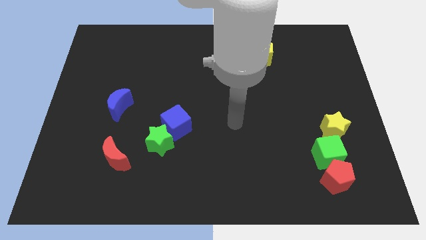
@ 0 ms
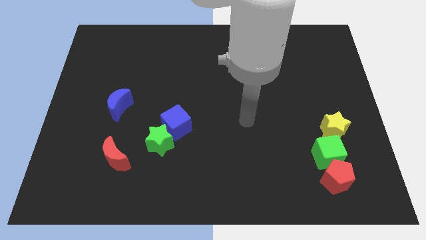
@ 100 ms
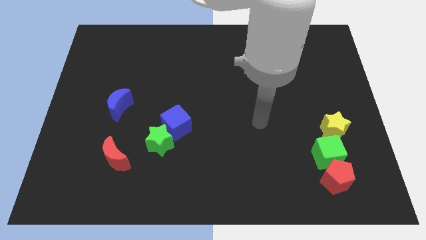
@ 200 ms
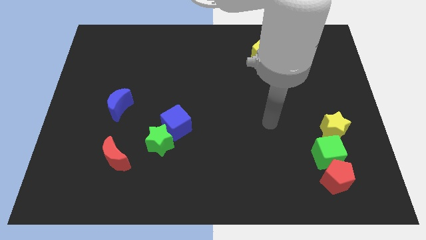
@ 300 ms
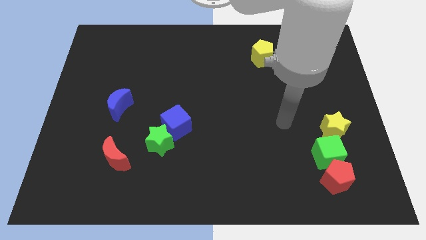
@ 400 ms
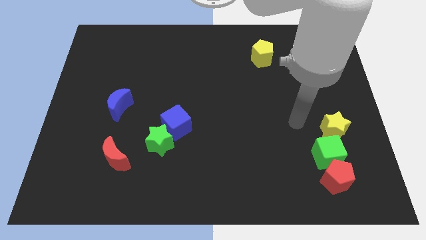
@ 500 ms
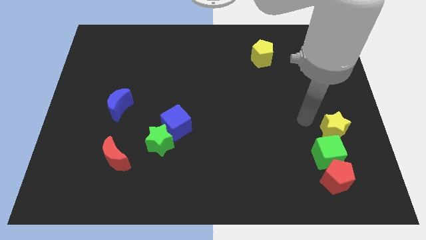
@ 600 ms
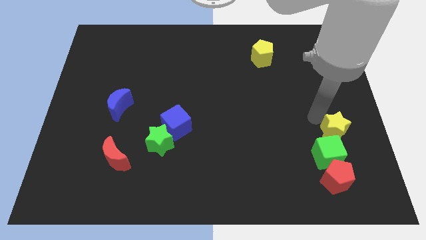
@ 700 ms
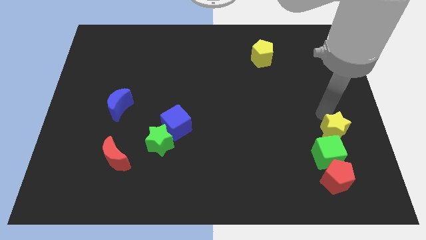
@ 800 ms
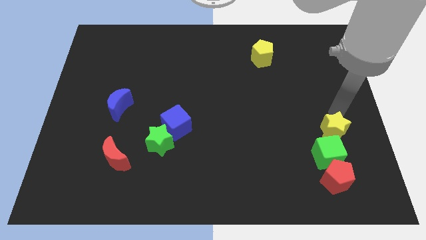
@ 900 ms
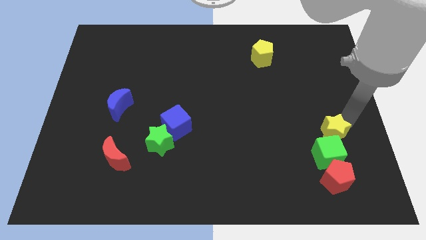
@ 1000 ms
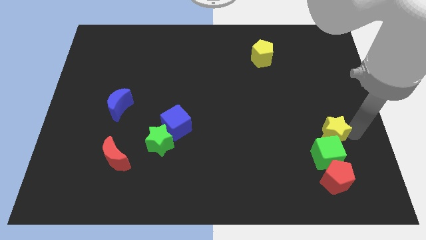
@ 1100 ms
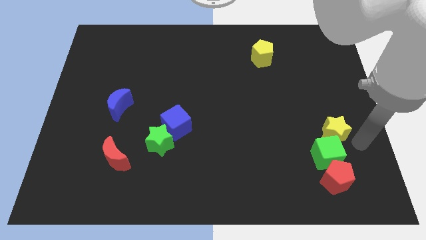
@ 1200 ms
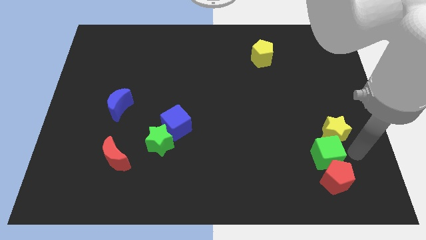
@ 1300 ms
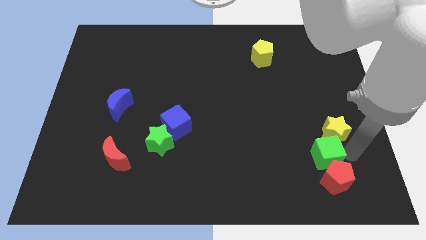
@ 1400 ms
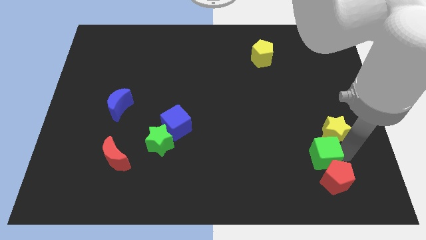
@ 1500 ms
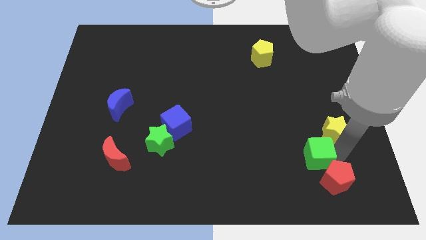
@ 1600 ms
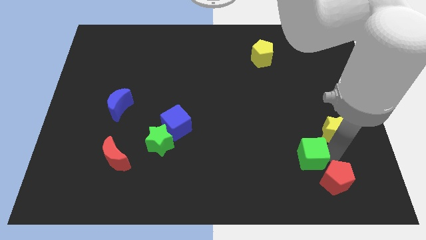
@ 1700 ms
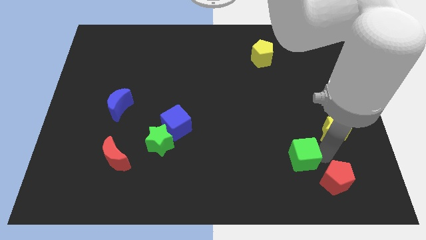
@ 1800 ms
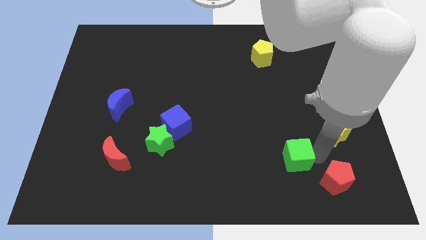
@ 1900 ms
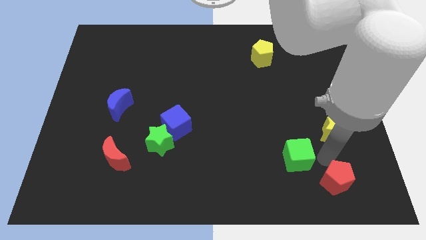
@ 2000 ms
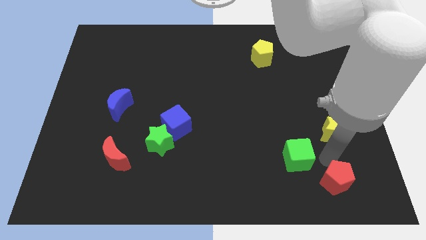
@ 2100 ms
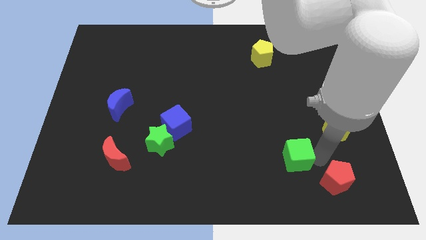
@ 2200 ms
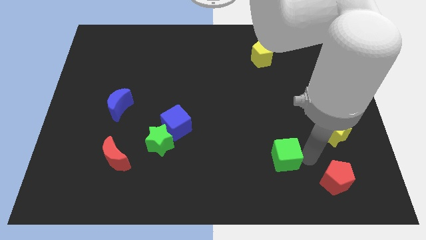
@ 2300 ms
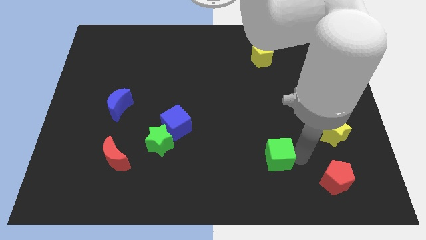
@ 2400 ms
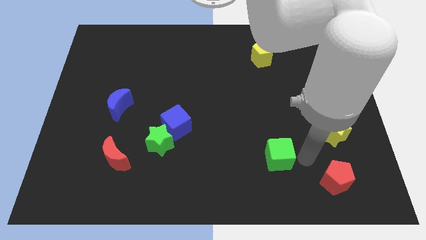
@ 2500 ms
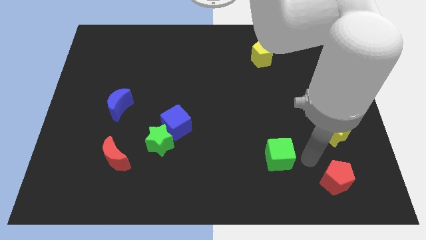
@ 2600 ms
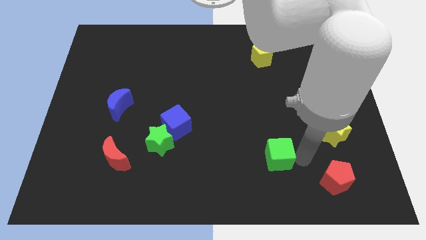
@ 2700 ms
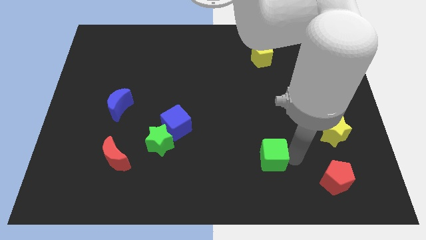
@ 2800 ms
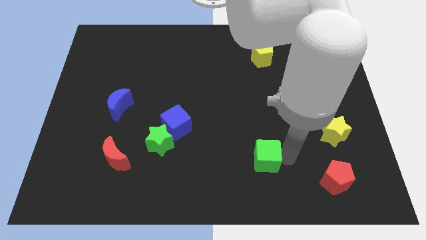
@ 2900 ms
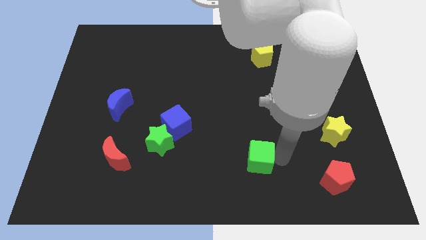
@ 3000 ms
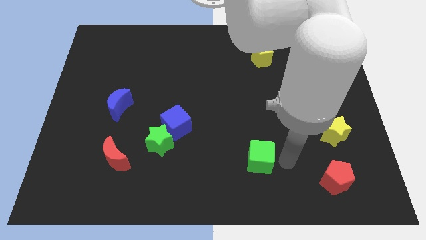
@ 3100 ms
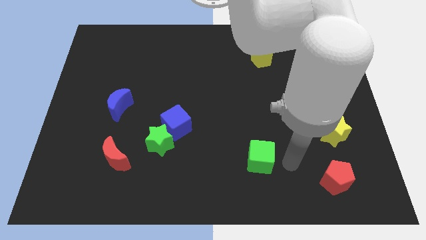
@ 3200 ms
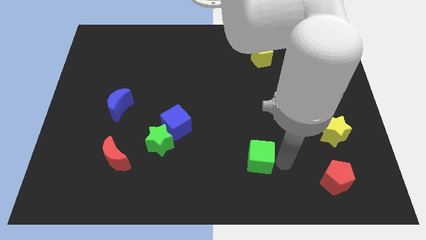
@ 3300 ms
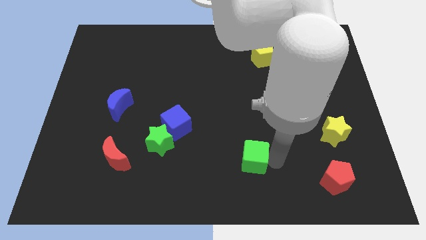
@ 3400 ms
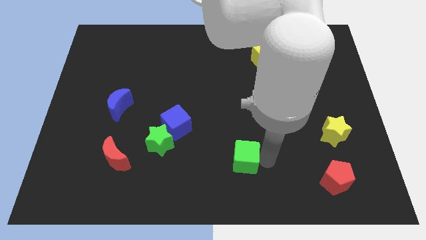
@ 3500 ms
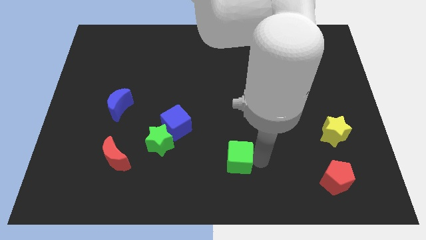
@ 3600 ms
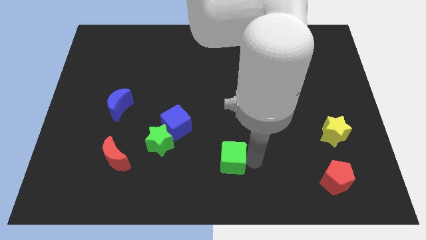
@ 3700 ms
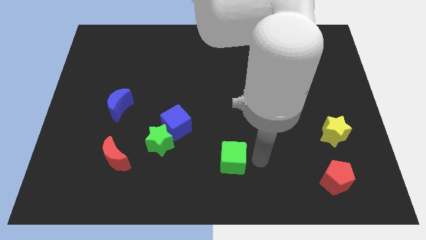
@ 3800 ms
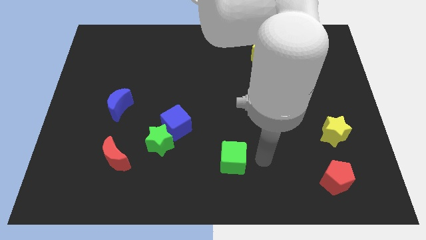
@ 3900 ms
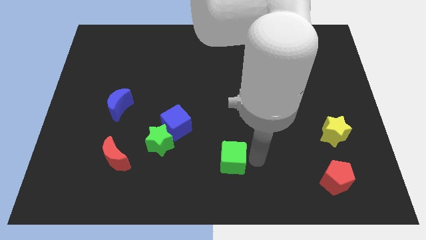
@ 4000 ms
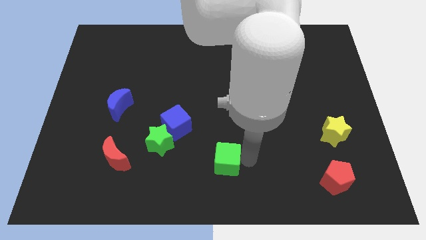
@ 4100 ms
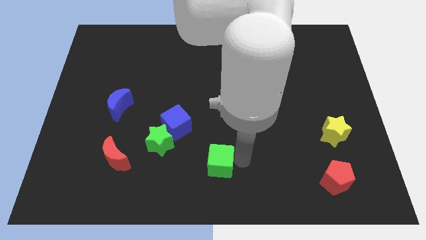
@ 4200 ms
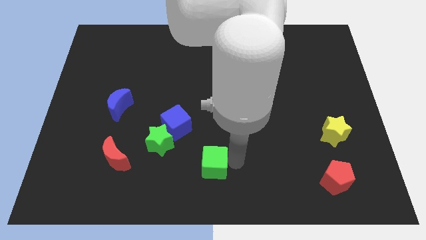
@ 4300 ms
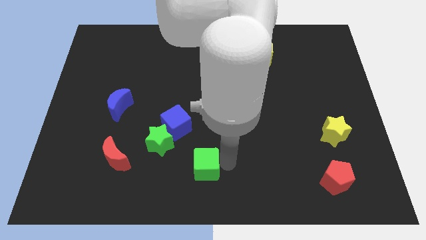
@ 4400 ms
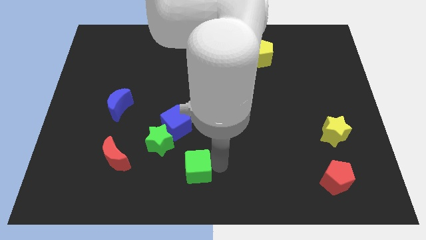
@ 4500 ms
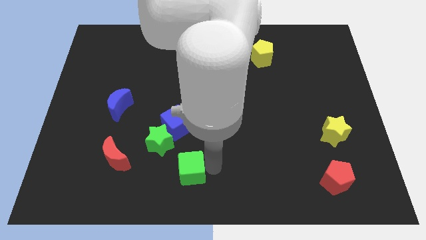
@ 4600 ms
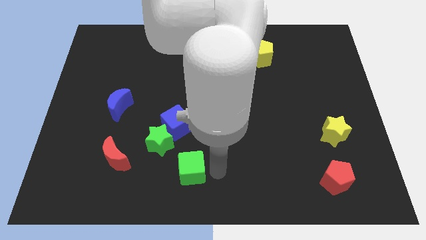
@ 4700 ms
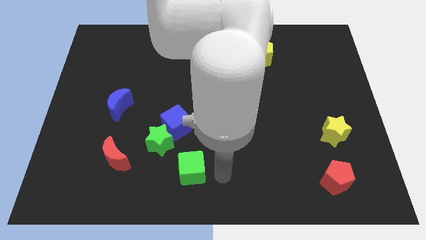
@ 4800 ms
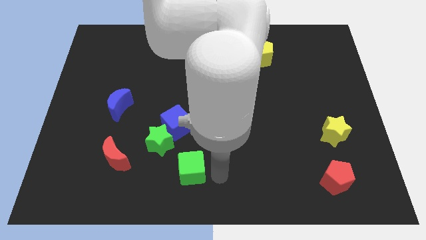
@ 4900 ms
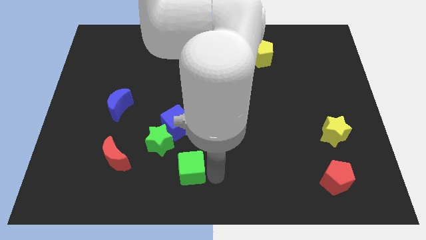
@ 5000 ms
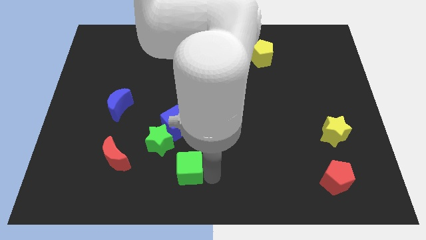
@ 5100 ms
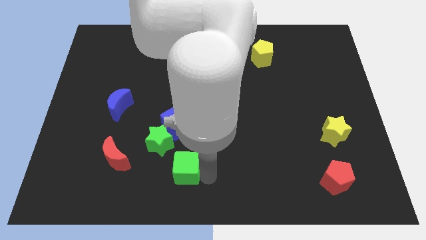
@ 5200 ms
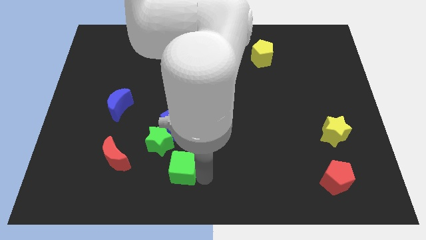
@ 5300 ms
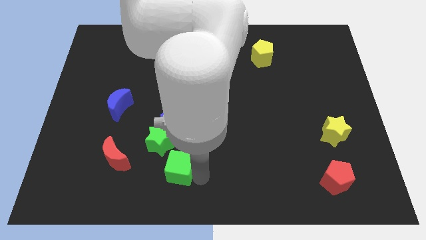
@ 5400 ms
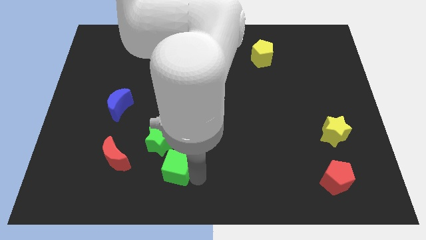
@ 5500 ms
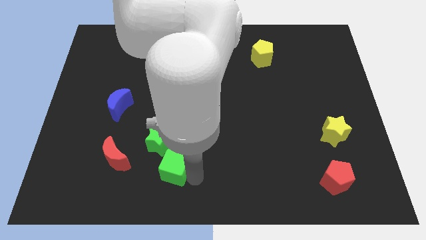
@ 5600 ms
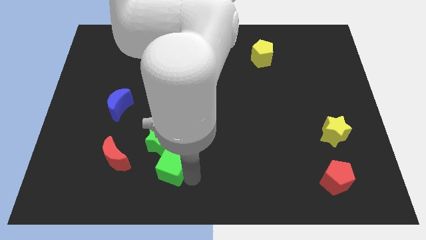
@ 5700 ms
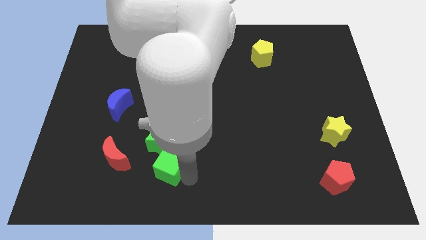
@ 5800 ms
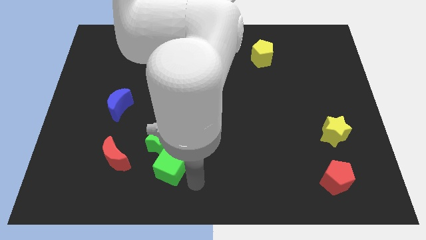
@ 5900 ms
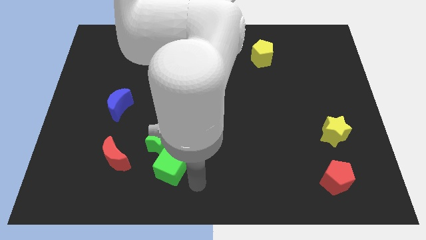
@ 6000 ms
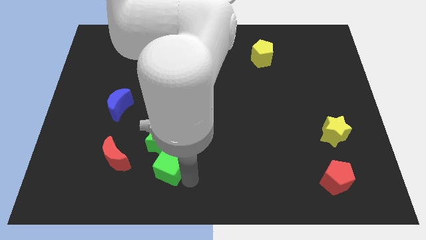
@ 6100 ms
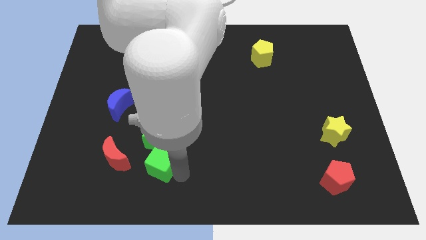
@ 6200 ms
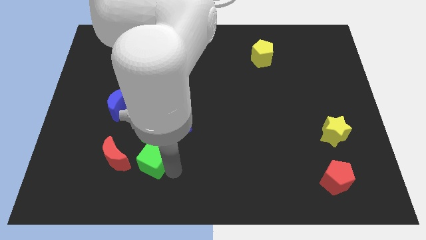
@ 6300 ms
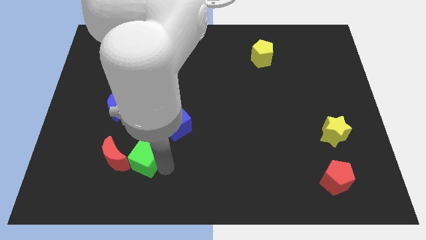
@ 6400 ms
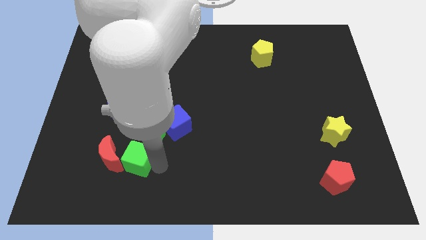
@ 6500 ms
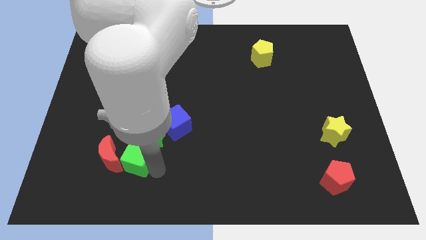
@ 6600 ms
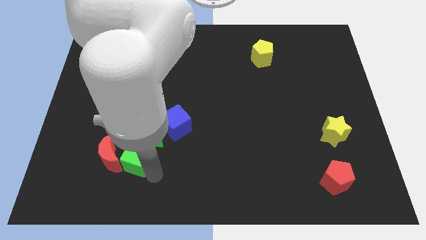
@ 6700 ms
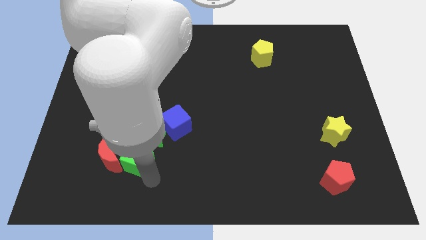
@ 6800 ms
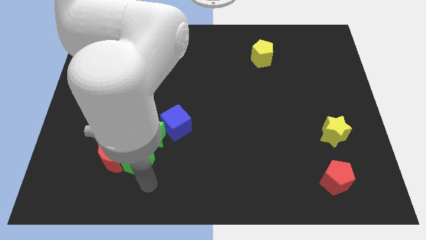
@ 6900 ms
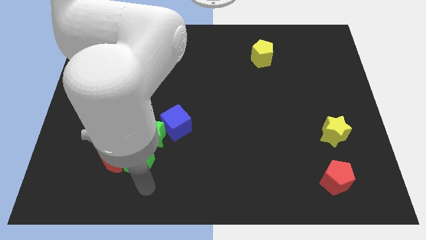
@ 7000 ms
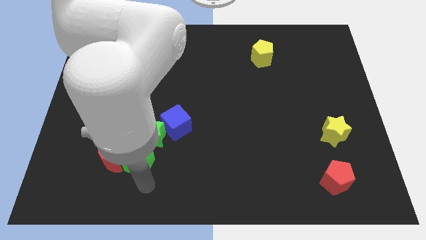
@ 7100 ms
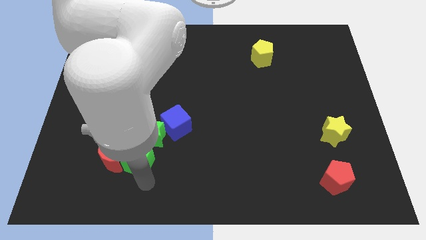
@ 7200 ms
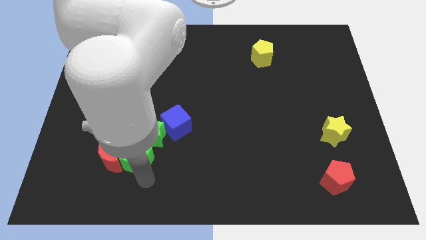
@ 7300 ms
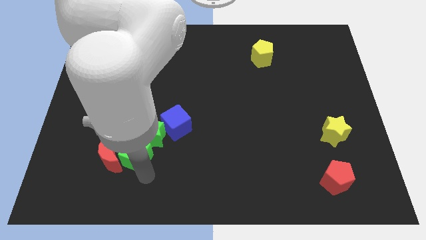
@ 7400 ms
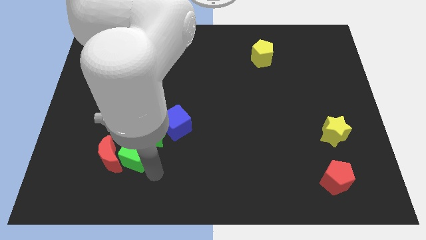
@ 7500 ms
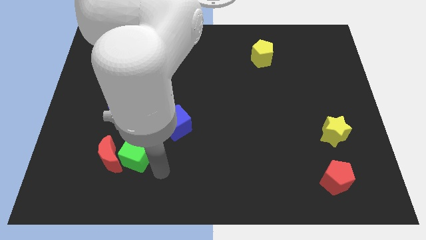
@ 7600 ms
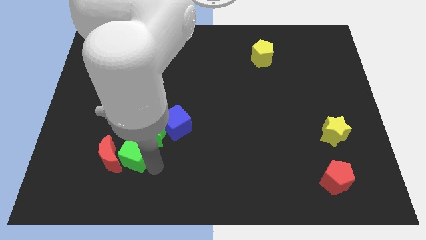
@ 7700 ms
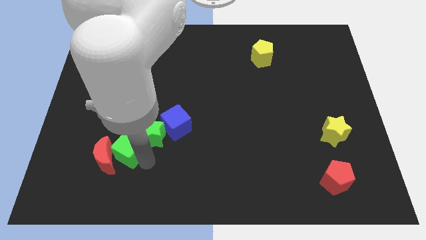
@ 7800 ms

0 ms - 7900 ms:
put the green cube to the left of the green star
